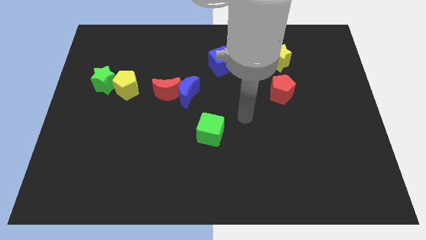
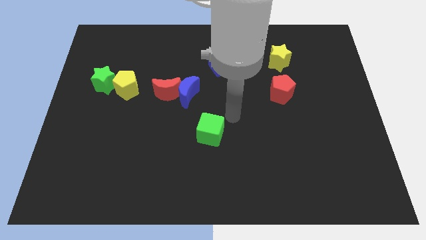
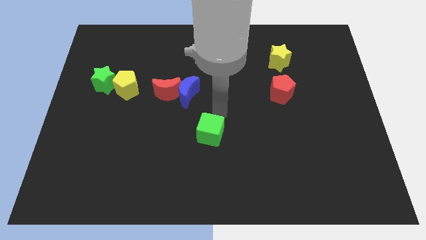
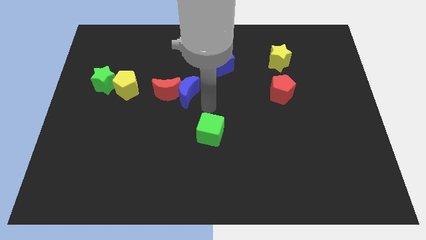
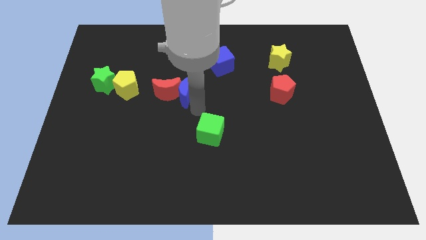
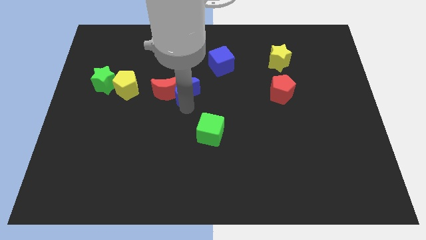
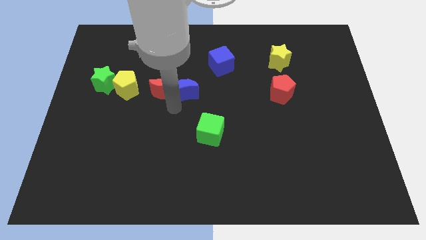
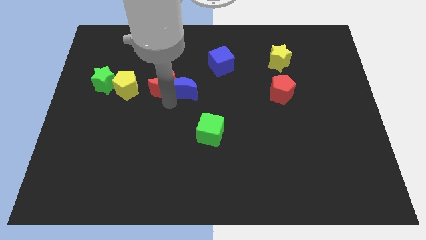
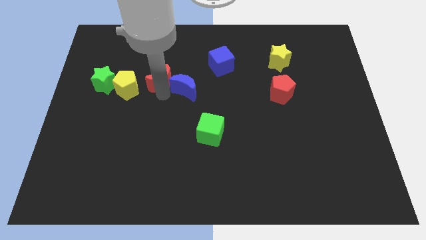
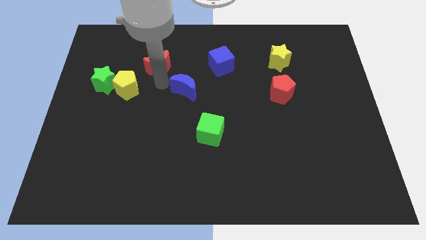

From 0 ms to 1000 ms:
move the blue moon away from the red moon

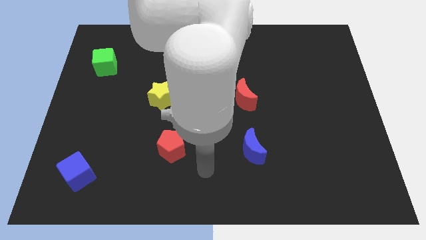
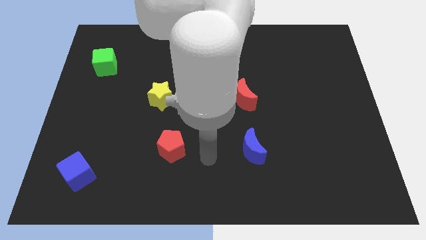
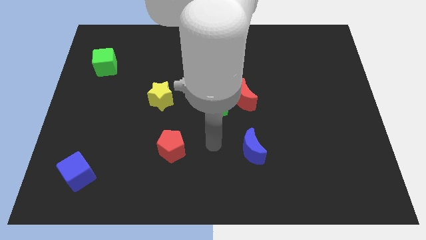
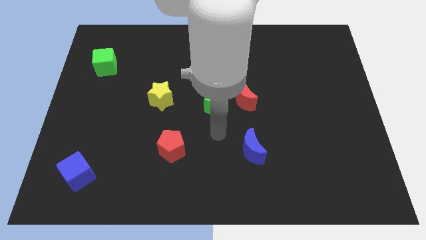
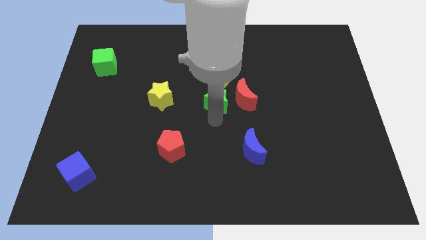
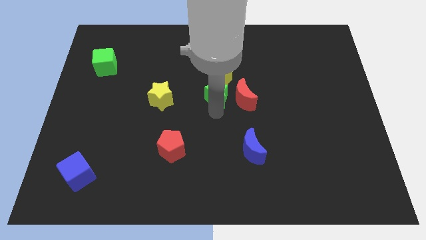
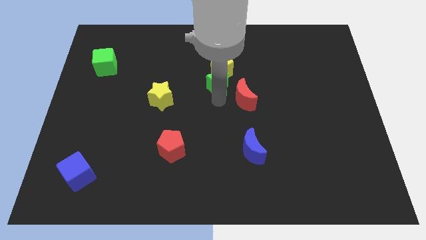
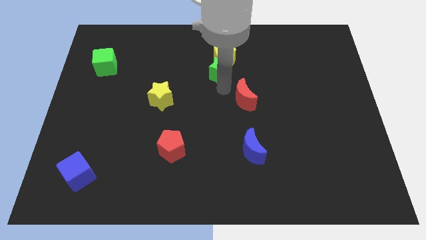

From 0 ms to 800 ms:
pull the red moon apart from the green star and yellow pentagon

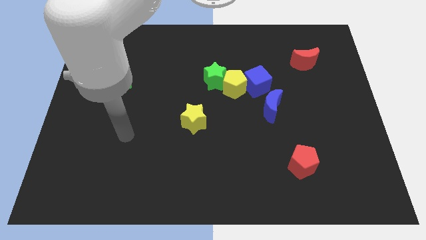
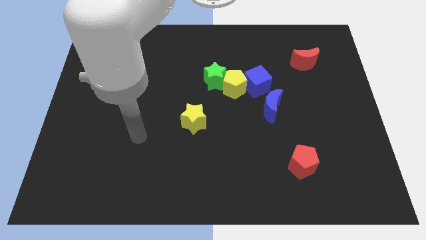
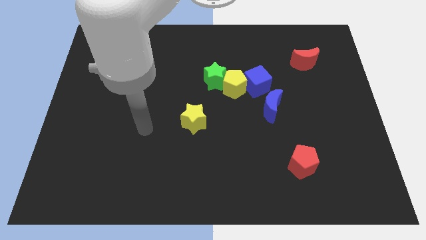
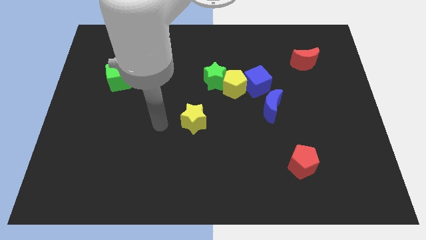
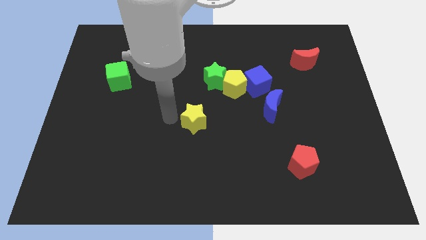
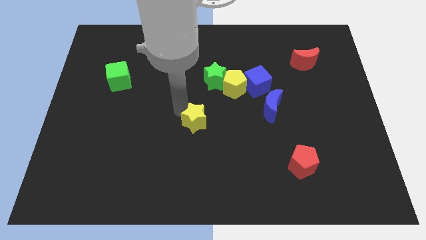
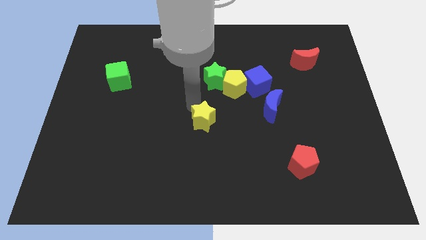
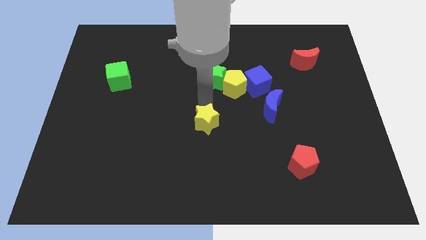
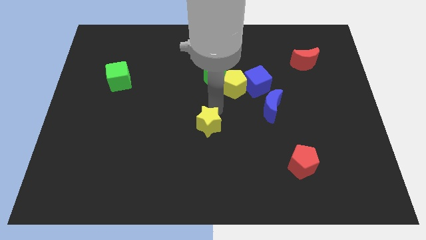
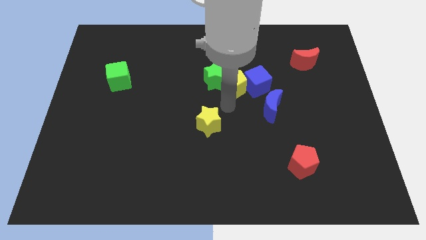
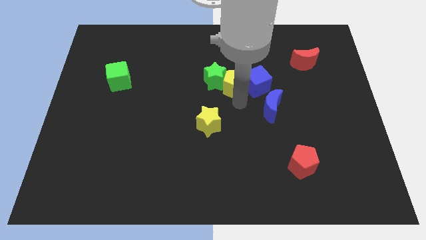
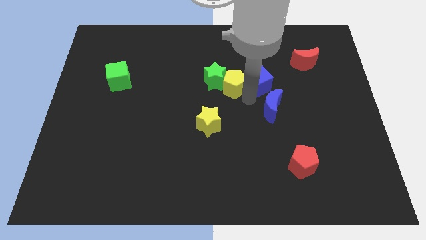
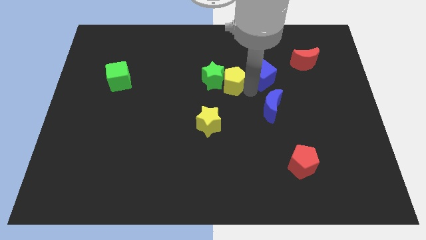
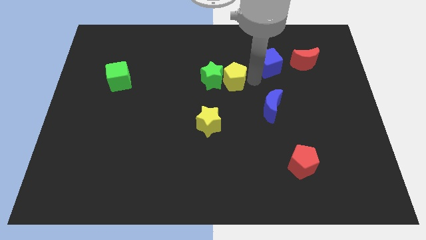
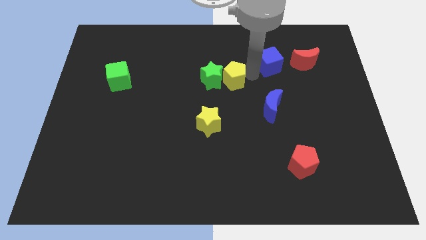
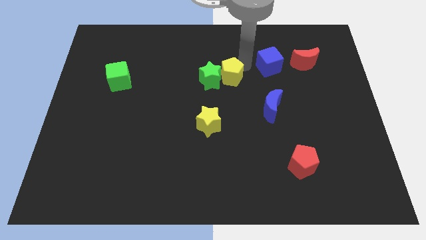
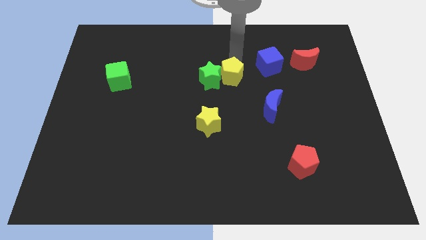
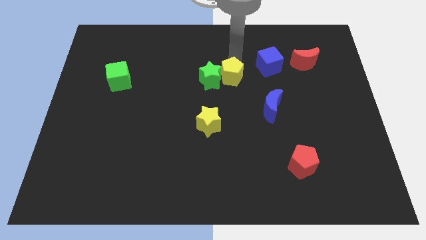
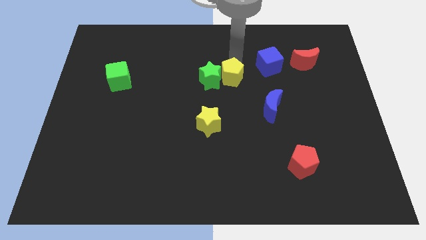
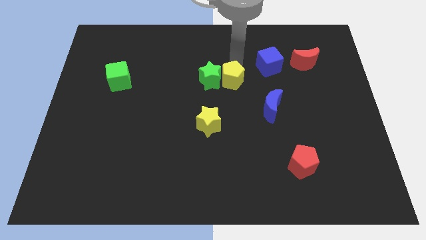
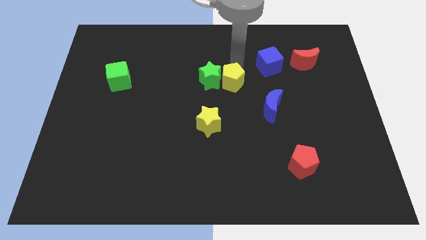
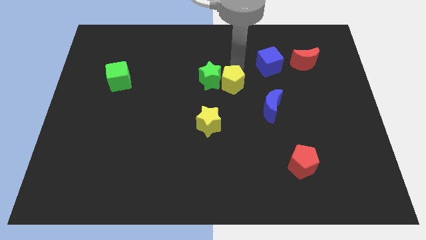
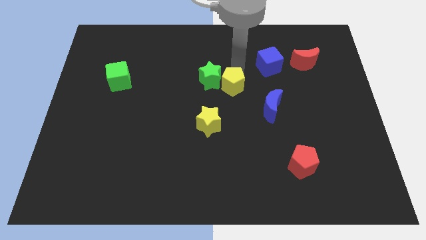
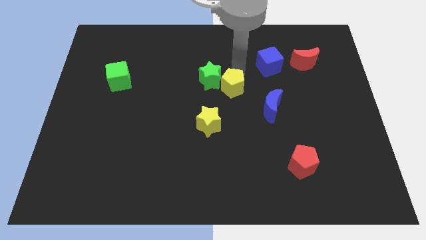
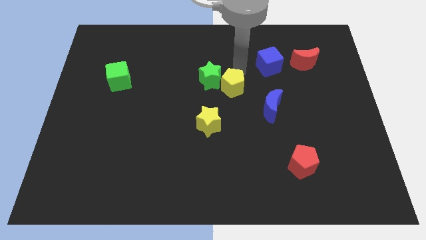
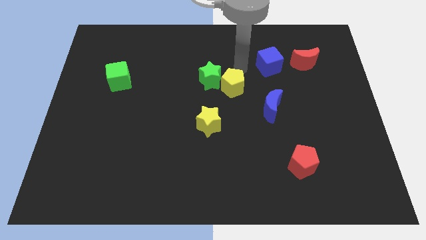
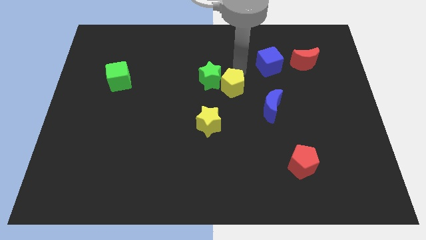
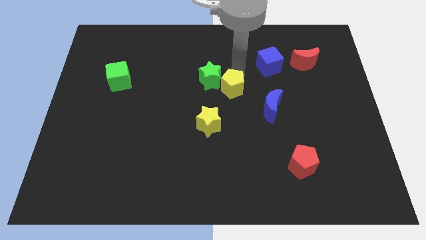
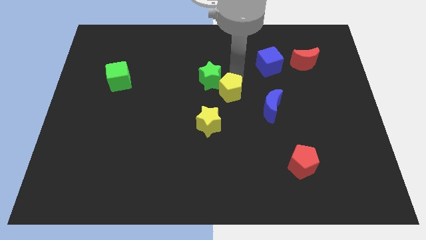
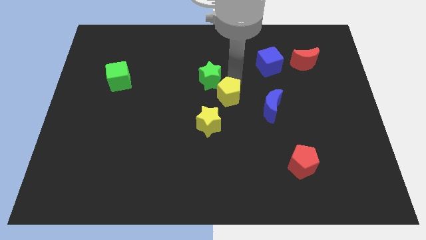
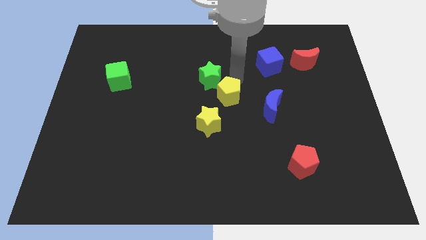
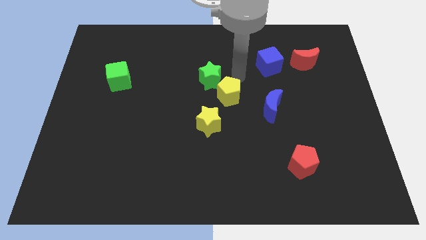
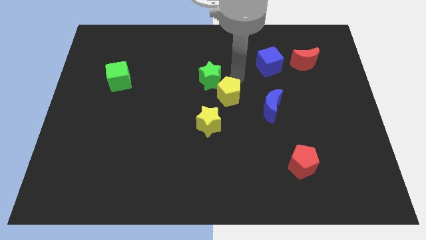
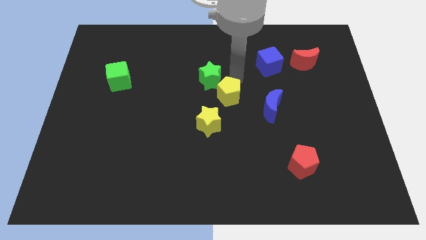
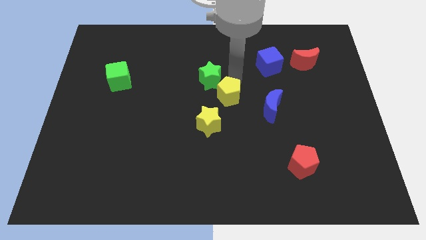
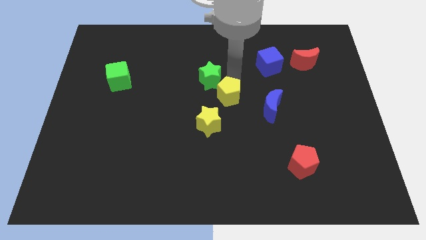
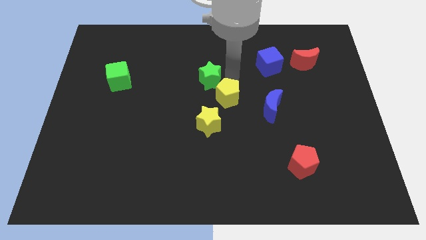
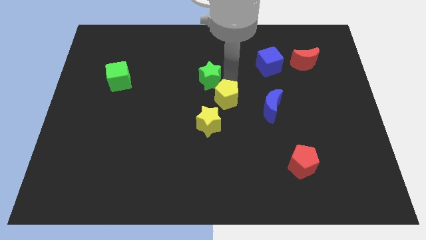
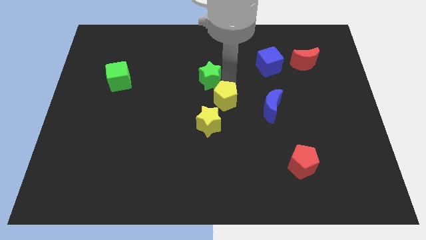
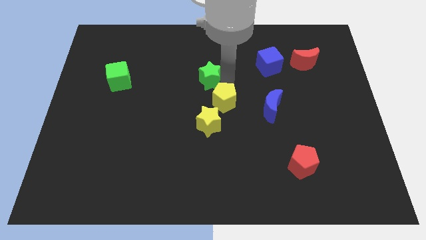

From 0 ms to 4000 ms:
separate the yellow pentagon from the green star and blue cube

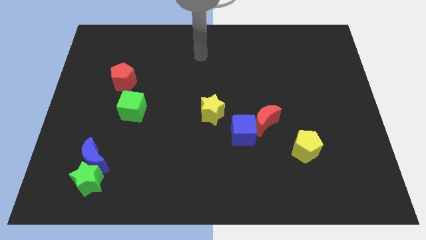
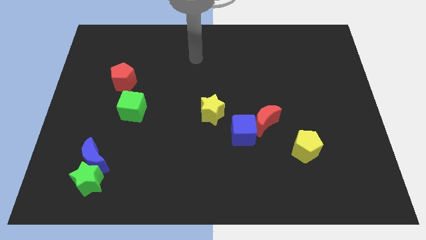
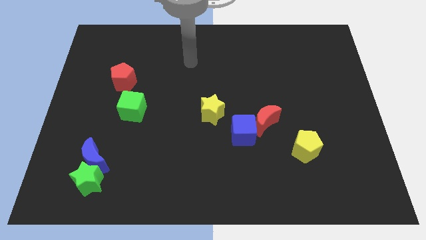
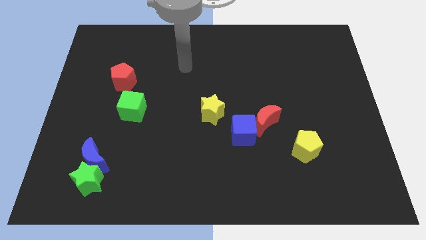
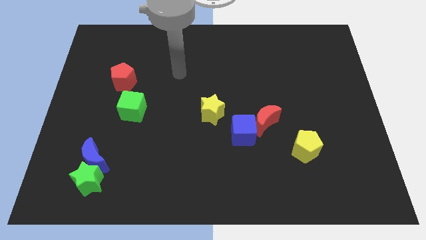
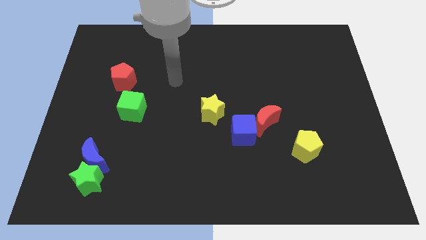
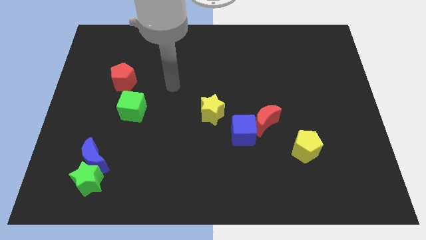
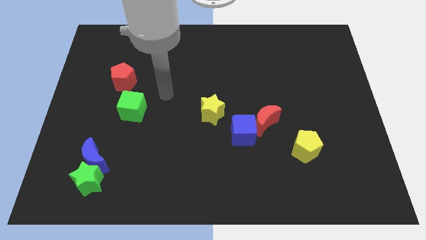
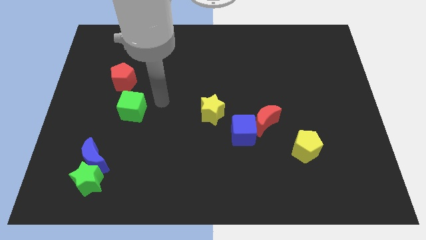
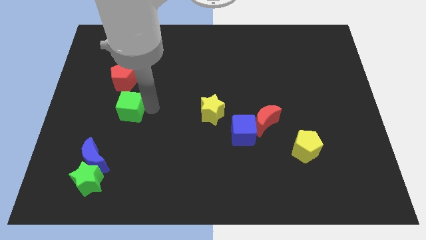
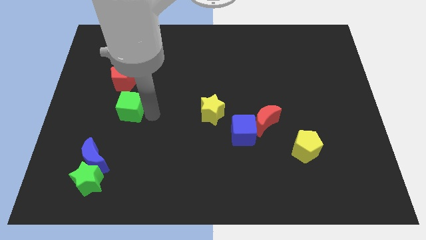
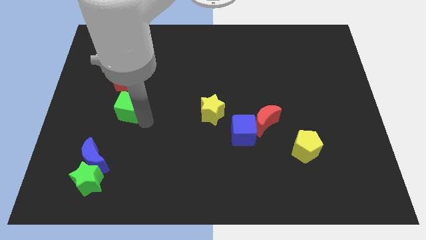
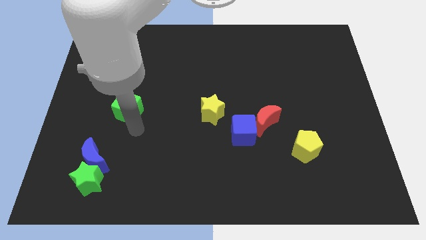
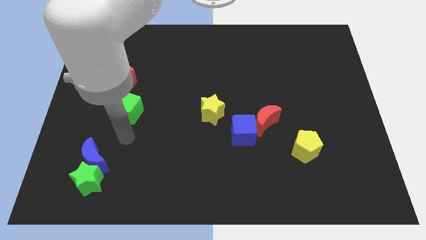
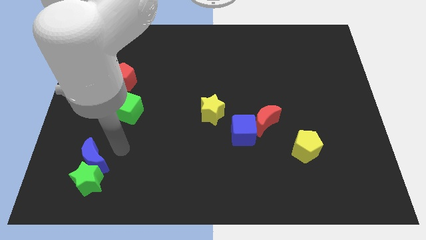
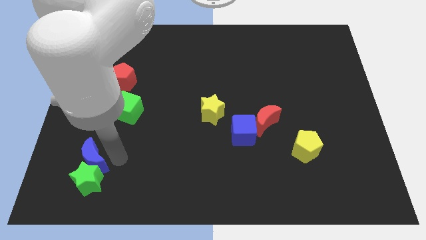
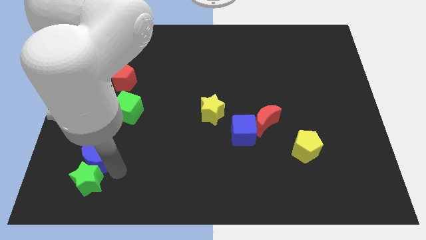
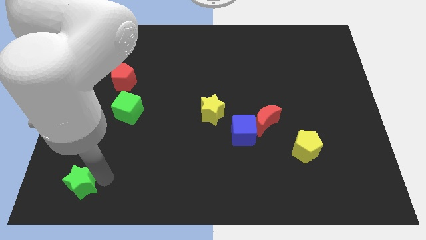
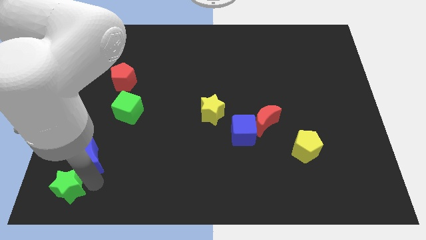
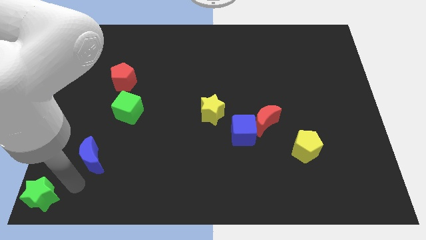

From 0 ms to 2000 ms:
move the blue moon away from the green star

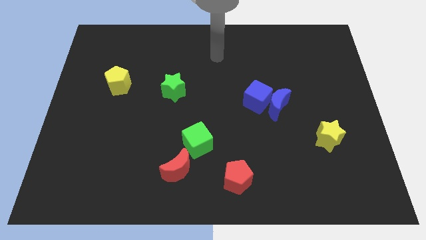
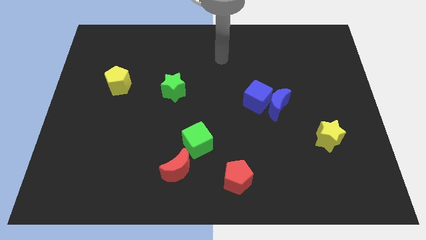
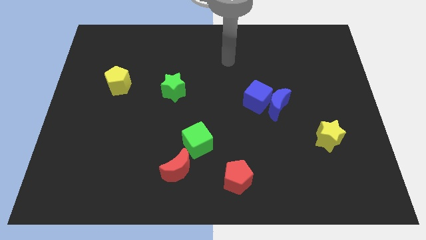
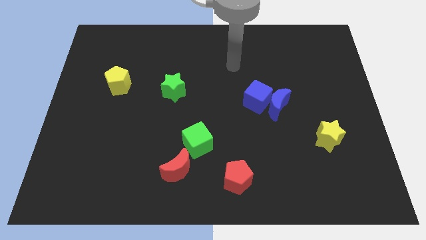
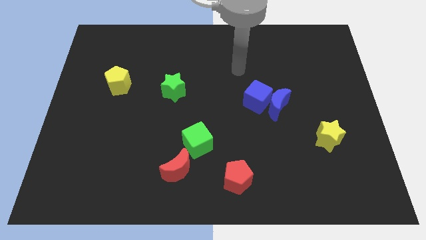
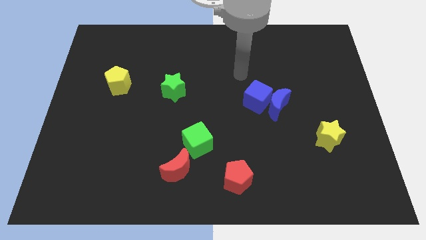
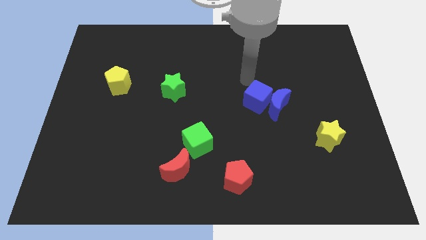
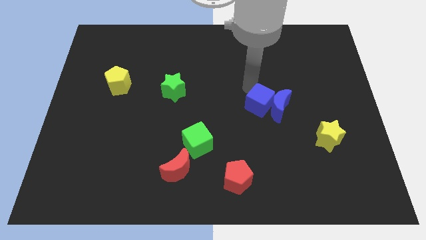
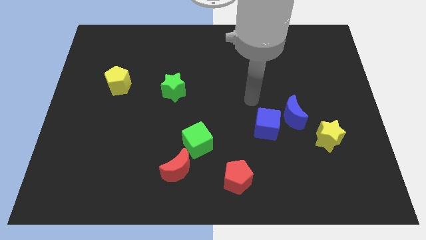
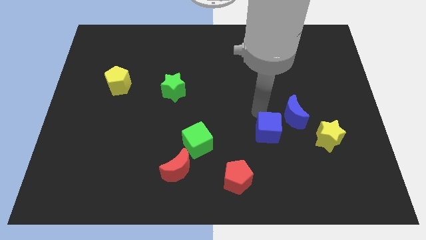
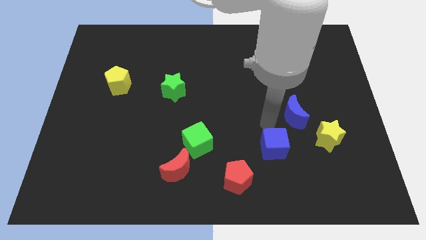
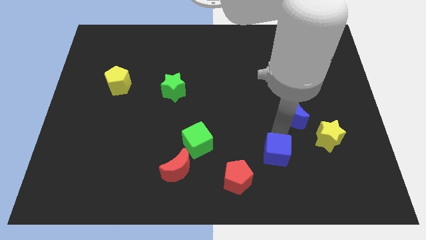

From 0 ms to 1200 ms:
pull the blue moon apart from the blue cube

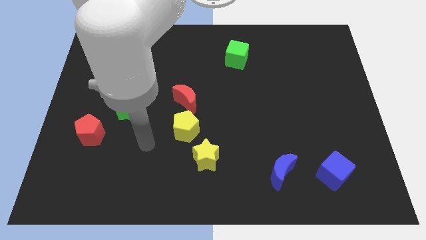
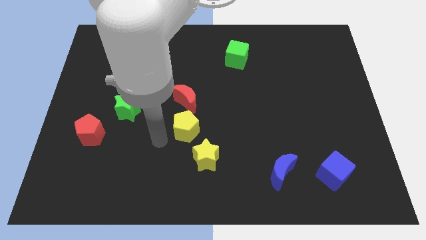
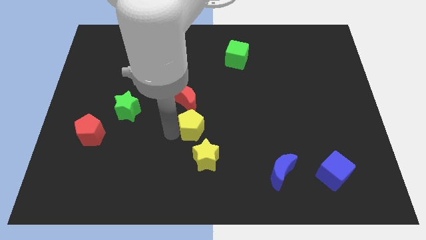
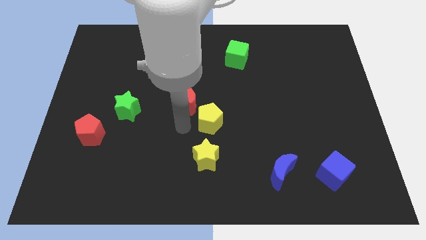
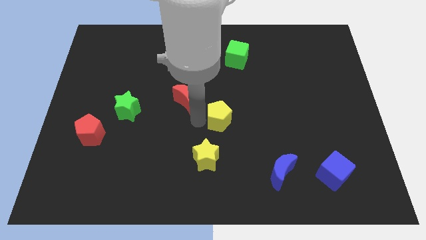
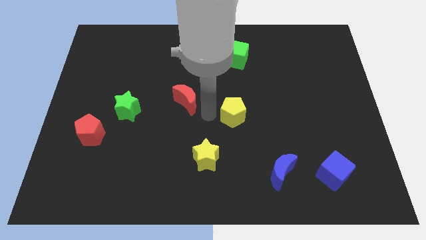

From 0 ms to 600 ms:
separate the red moon from the yellow pentagon
